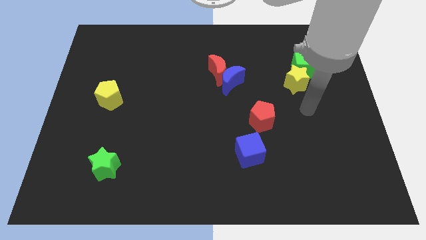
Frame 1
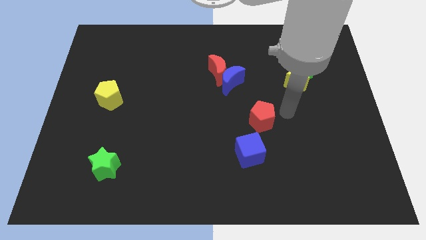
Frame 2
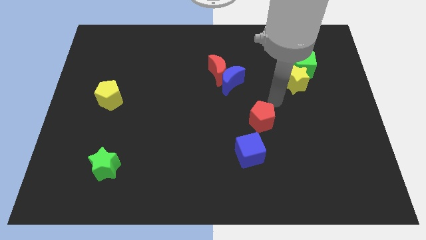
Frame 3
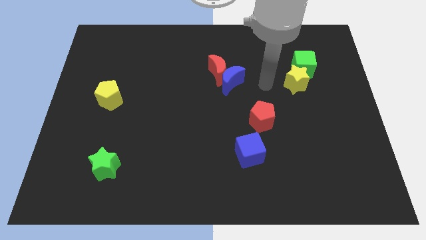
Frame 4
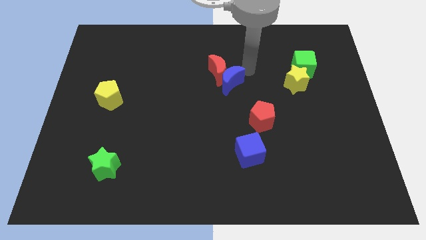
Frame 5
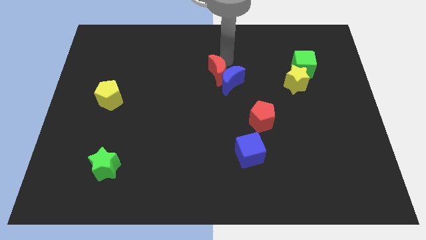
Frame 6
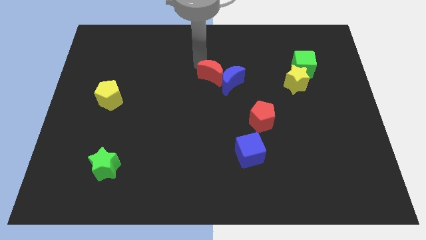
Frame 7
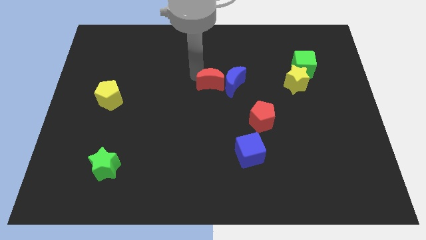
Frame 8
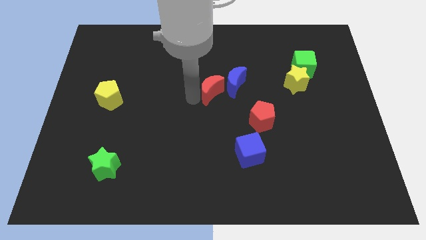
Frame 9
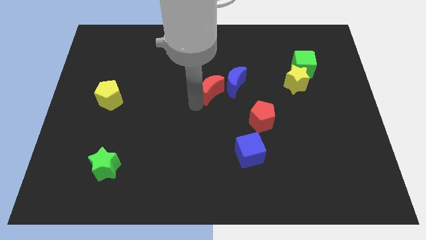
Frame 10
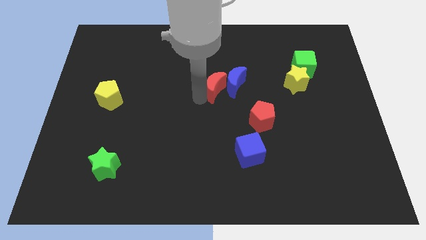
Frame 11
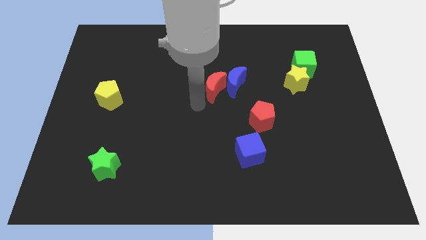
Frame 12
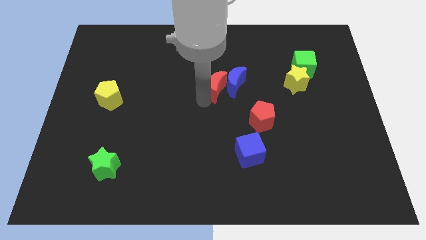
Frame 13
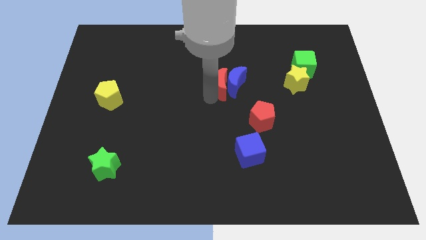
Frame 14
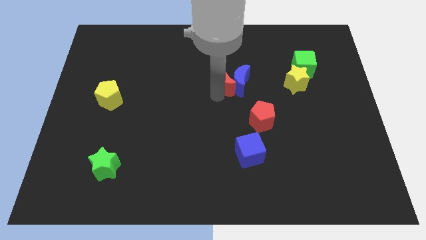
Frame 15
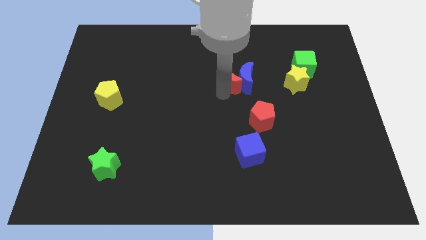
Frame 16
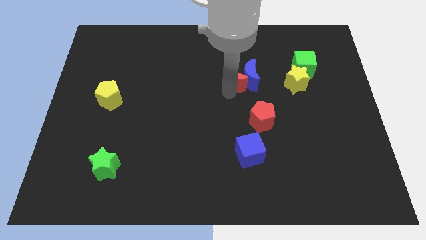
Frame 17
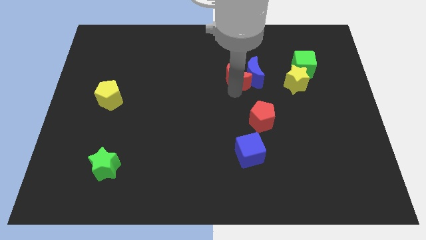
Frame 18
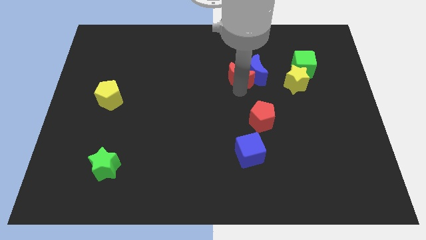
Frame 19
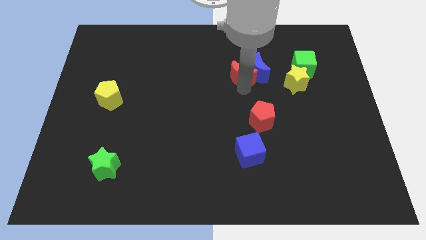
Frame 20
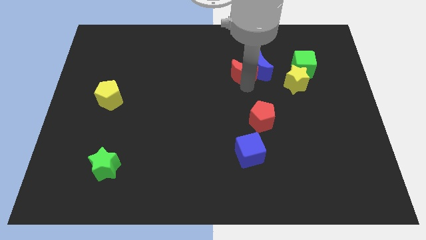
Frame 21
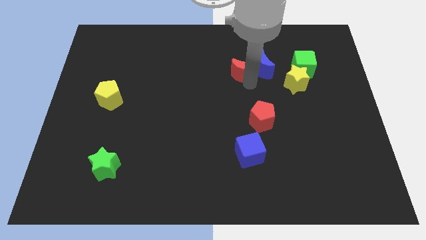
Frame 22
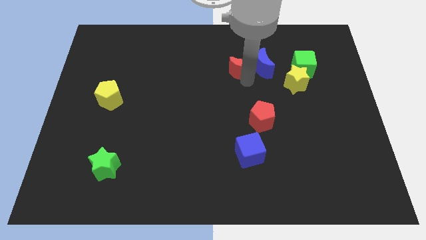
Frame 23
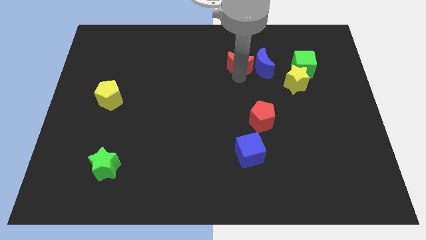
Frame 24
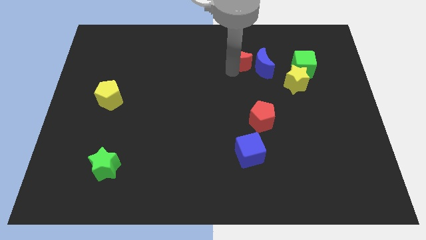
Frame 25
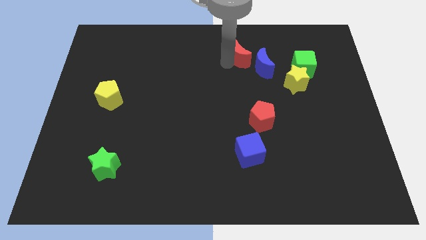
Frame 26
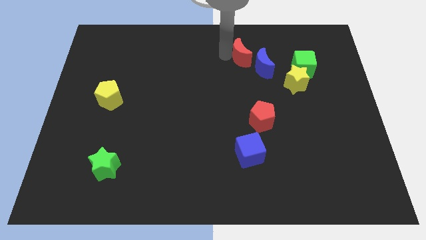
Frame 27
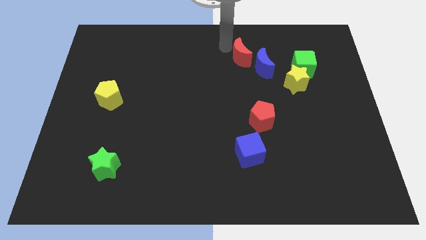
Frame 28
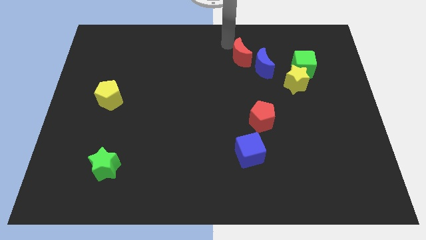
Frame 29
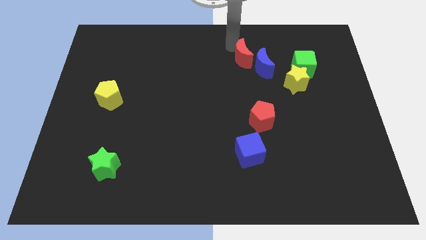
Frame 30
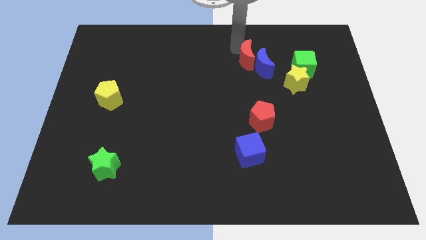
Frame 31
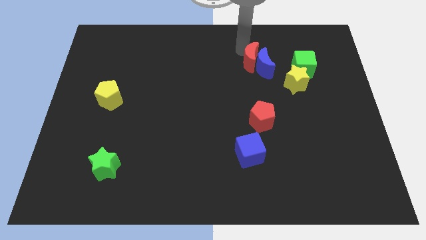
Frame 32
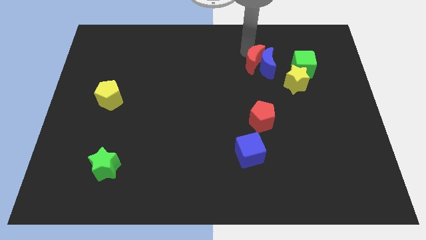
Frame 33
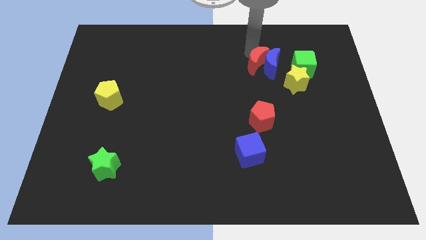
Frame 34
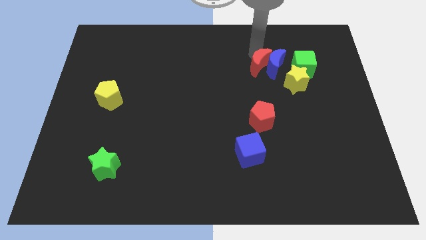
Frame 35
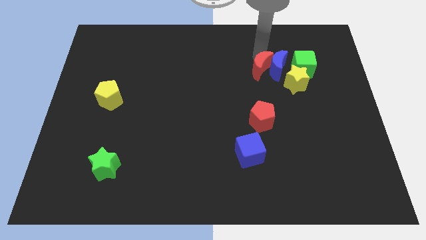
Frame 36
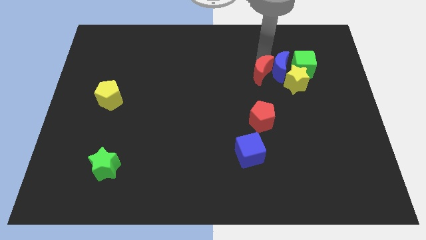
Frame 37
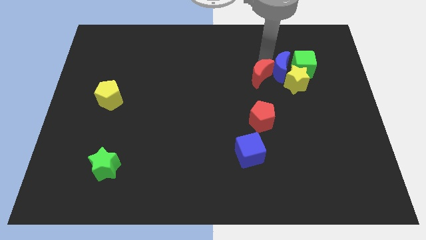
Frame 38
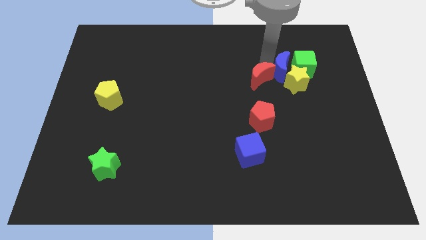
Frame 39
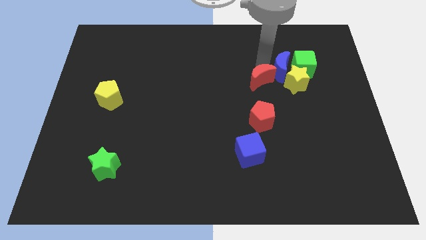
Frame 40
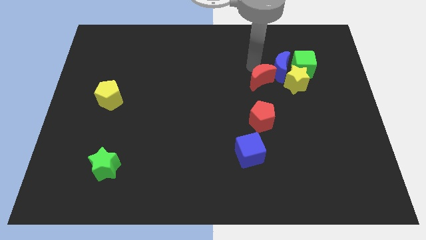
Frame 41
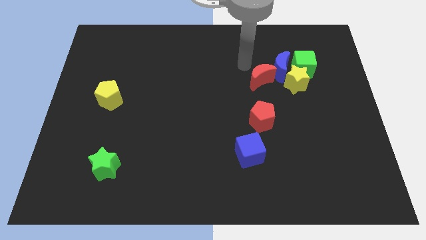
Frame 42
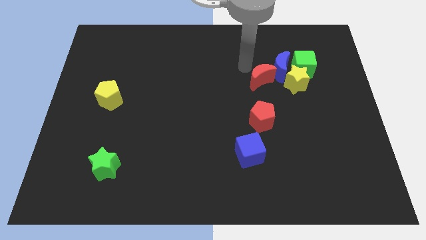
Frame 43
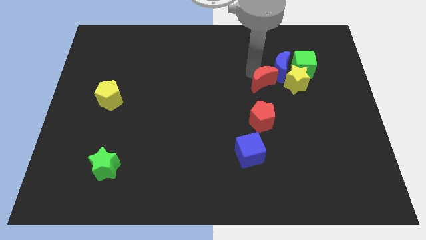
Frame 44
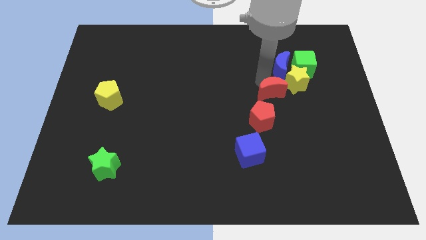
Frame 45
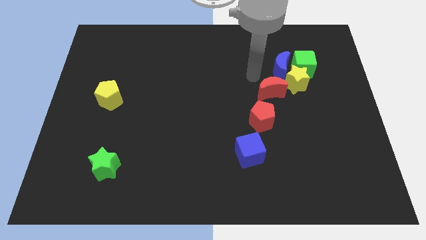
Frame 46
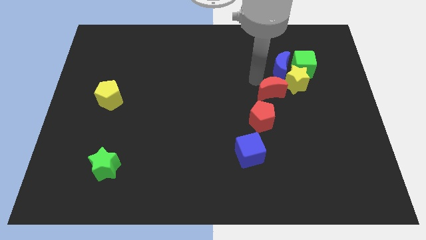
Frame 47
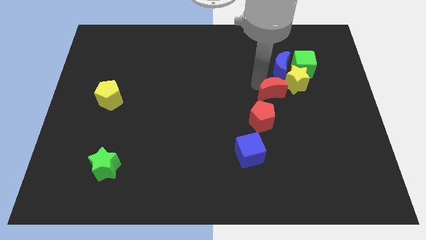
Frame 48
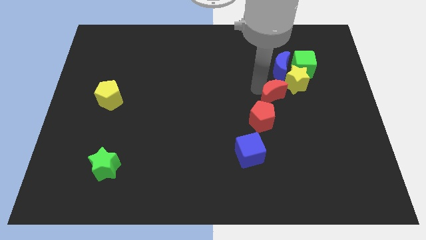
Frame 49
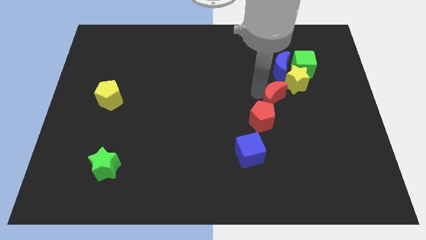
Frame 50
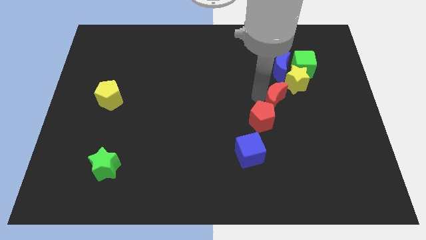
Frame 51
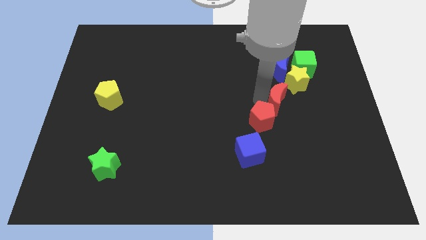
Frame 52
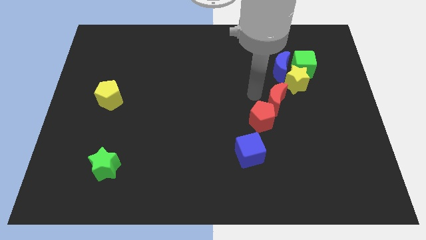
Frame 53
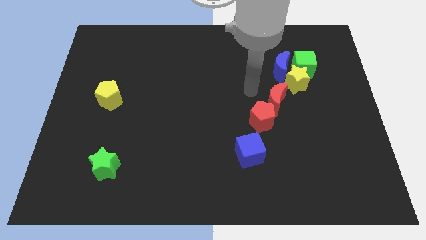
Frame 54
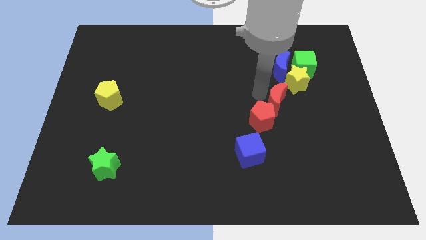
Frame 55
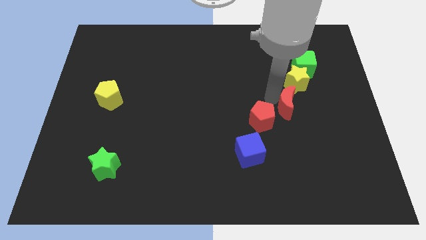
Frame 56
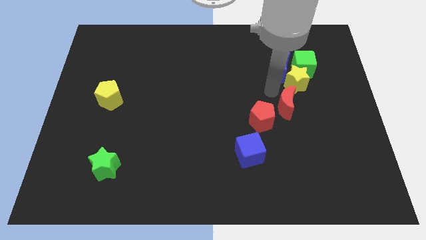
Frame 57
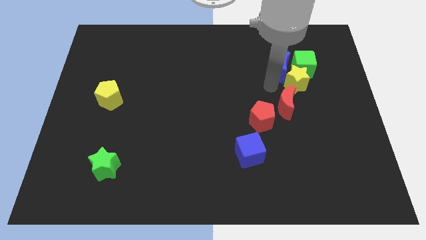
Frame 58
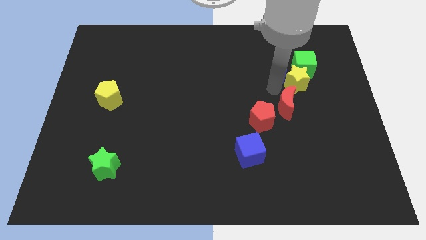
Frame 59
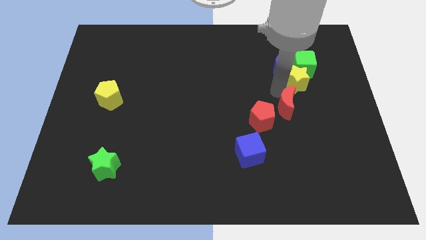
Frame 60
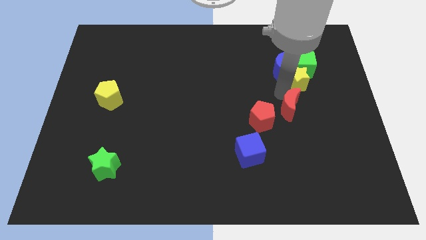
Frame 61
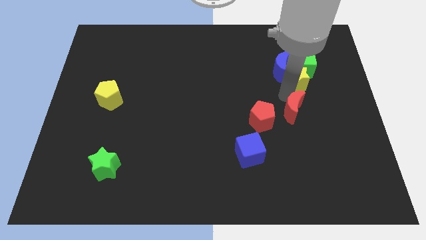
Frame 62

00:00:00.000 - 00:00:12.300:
move the red moon down and then to the right

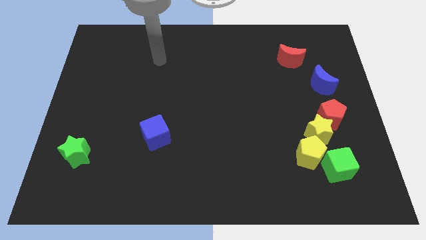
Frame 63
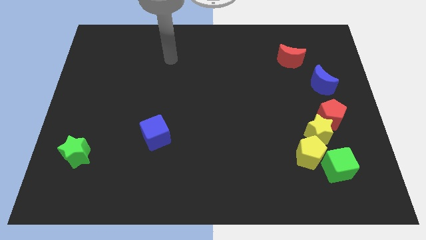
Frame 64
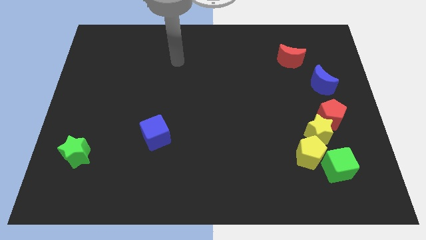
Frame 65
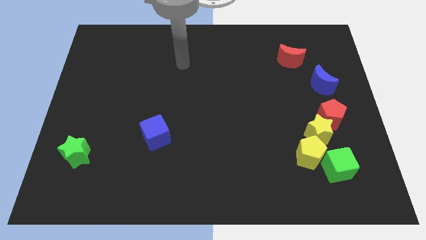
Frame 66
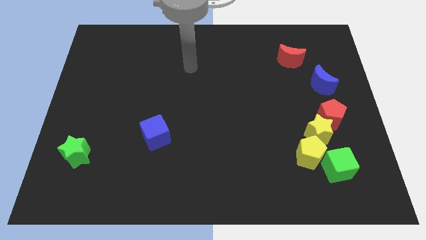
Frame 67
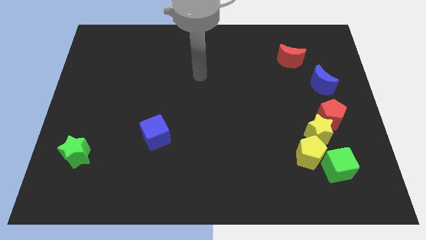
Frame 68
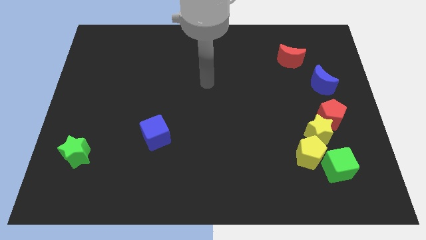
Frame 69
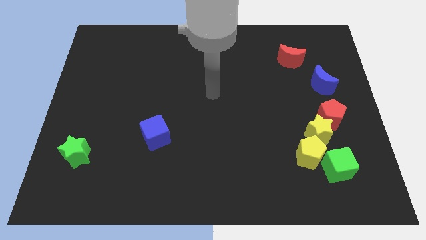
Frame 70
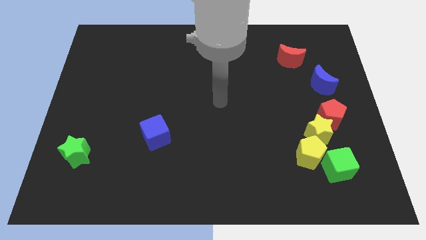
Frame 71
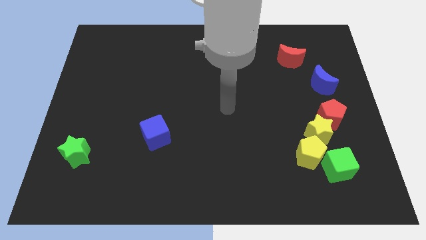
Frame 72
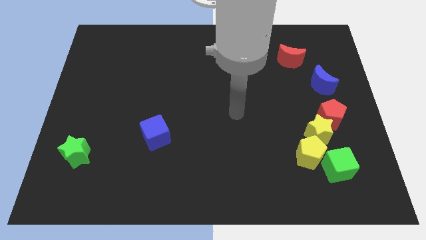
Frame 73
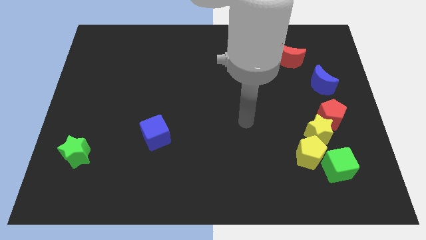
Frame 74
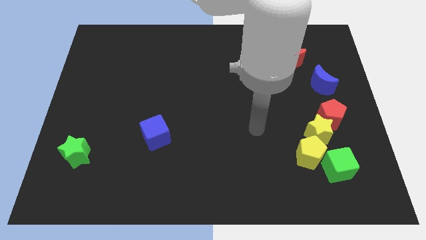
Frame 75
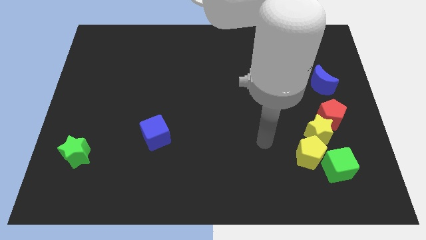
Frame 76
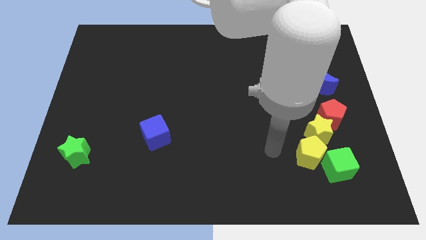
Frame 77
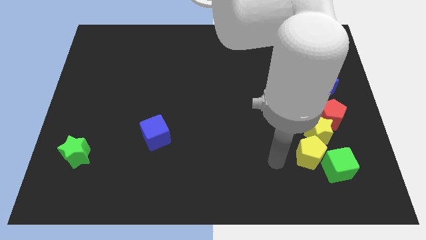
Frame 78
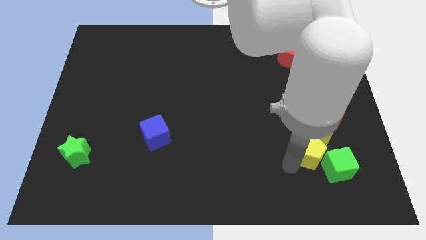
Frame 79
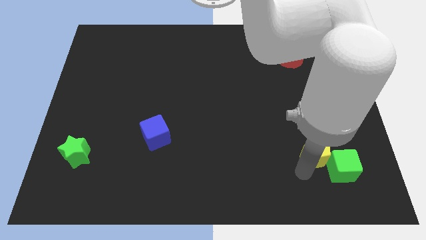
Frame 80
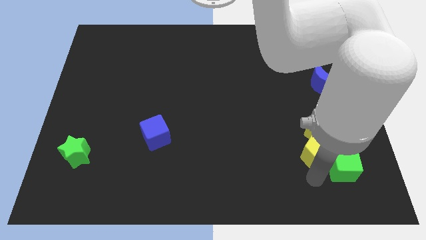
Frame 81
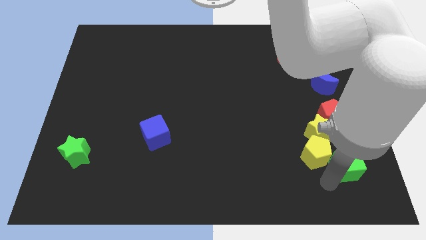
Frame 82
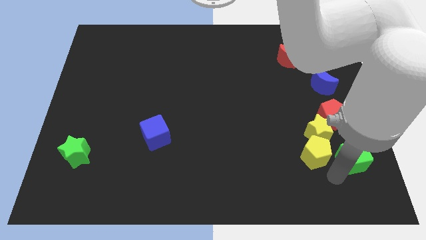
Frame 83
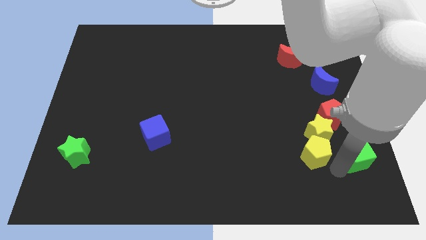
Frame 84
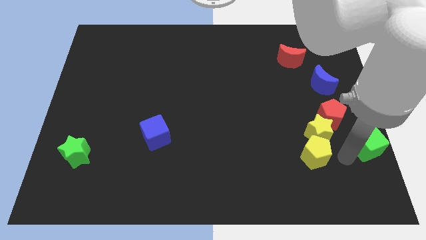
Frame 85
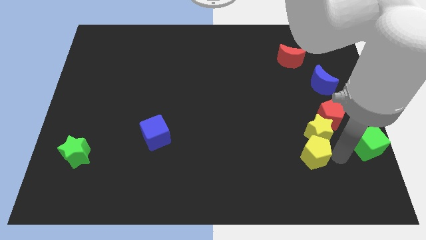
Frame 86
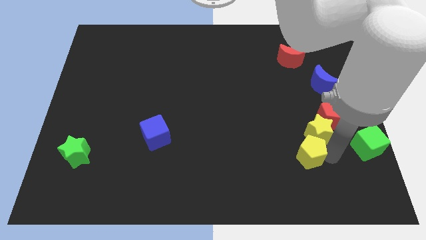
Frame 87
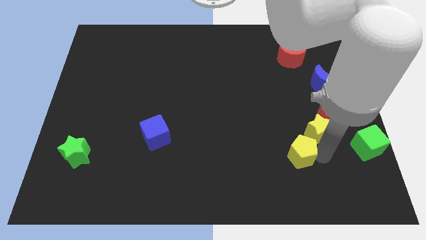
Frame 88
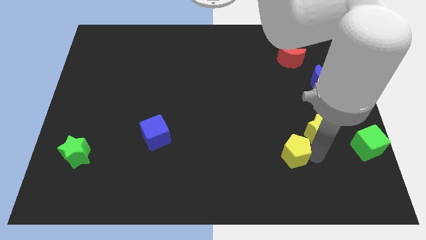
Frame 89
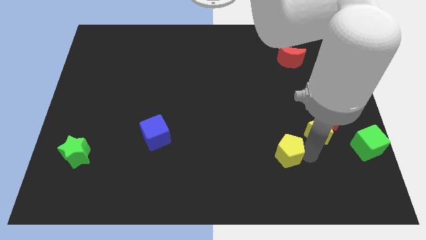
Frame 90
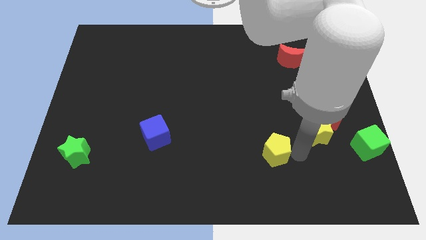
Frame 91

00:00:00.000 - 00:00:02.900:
slide the yellow pentagon somewhat left
